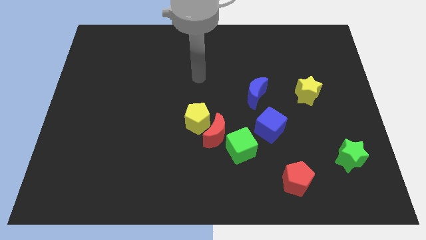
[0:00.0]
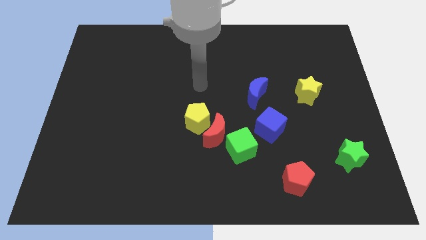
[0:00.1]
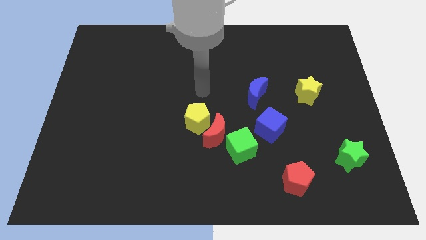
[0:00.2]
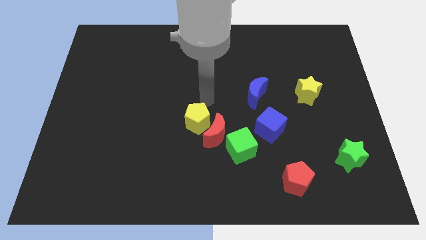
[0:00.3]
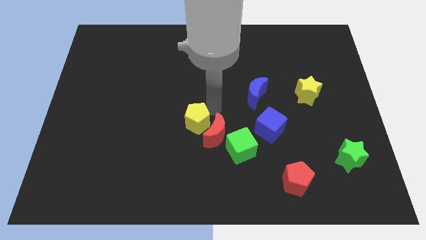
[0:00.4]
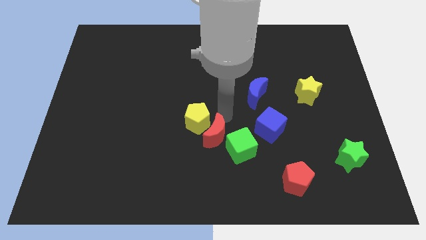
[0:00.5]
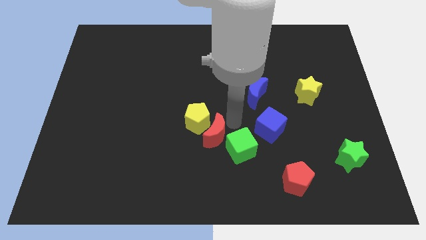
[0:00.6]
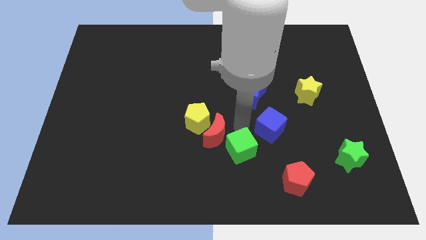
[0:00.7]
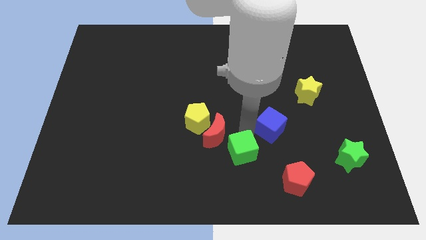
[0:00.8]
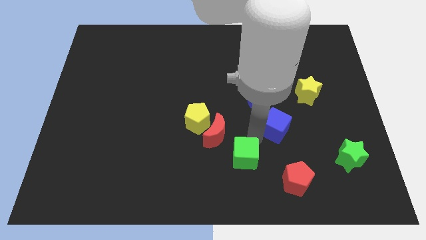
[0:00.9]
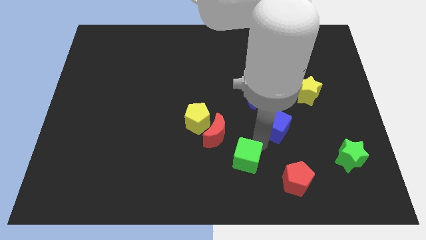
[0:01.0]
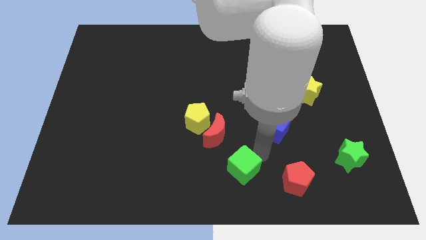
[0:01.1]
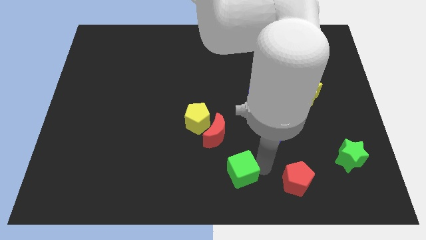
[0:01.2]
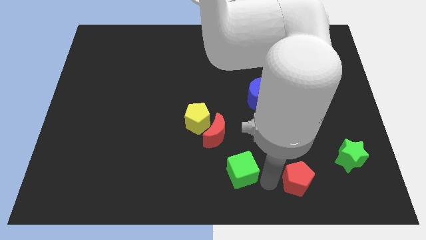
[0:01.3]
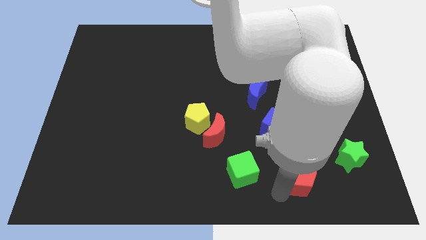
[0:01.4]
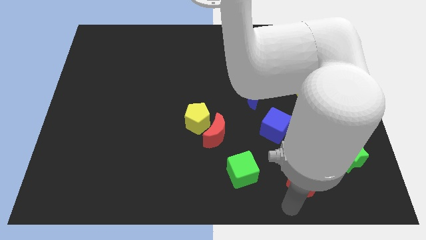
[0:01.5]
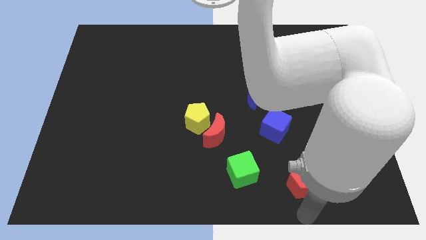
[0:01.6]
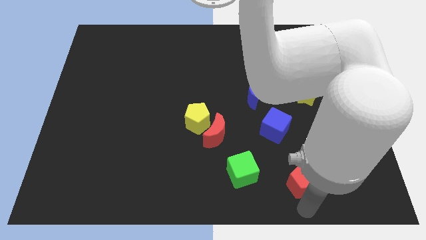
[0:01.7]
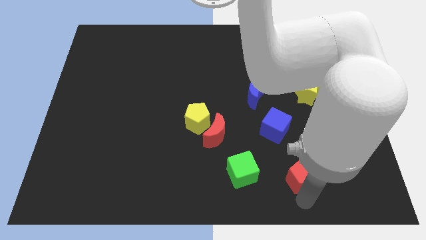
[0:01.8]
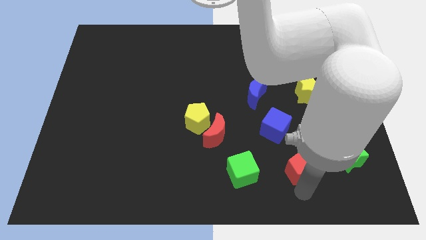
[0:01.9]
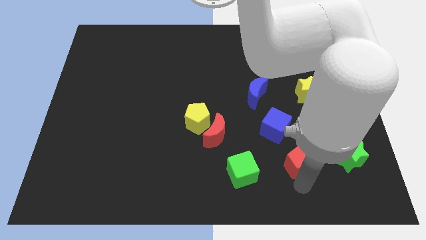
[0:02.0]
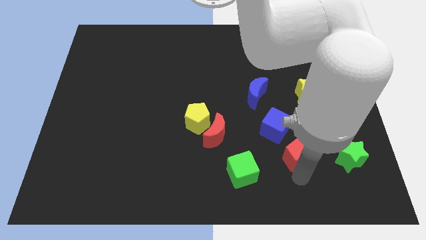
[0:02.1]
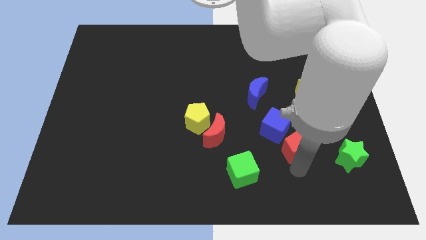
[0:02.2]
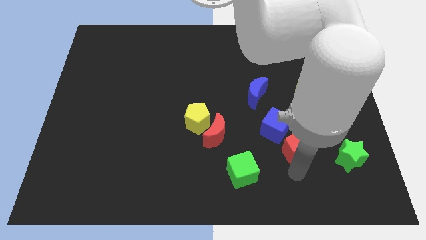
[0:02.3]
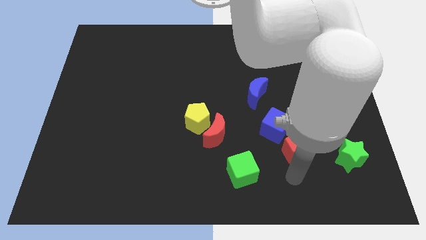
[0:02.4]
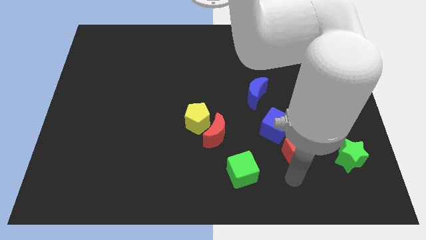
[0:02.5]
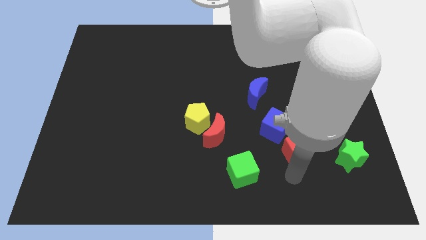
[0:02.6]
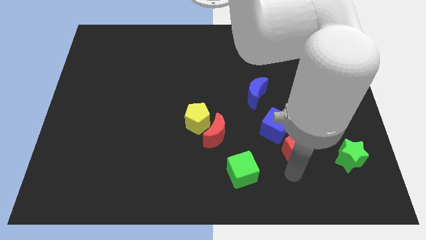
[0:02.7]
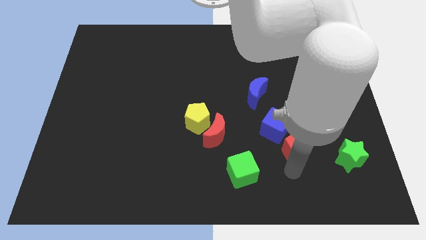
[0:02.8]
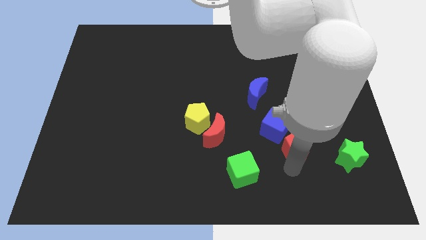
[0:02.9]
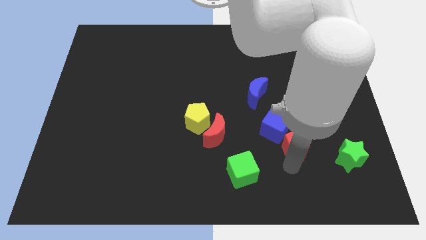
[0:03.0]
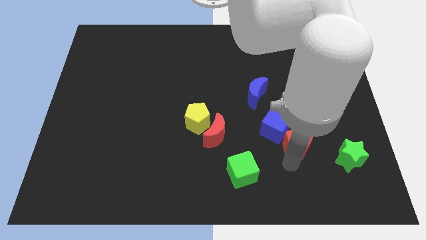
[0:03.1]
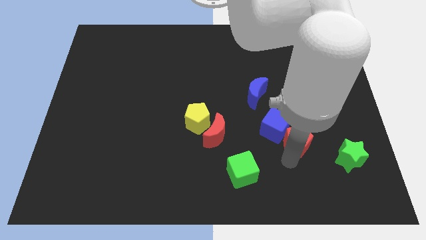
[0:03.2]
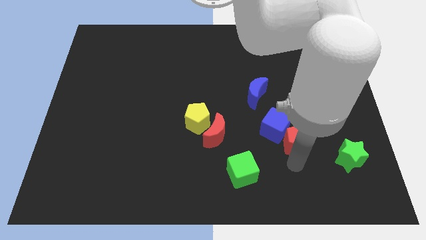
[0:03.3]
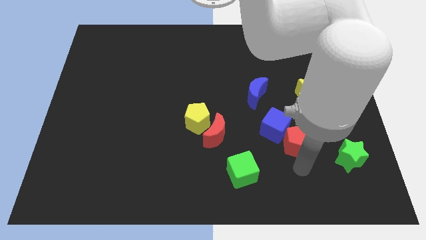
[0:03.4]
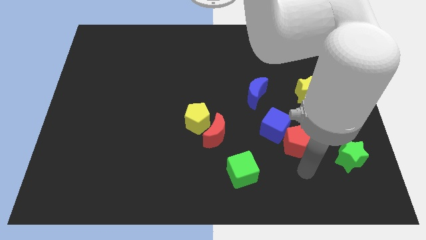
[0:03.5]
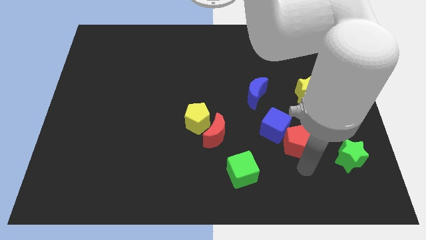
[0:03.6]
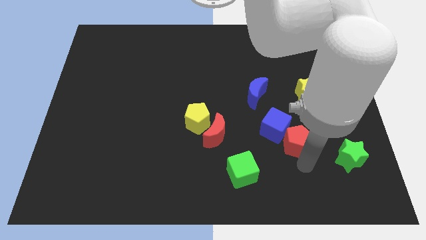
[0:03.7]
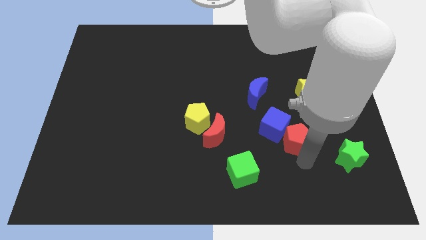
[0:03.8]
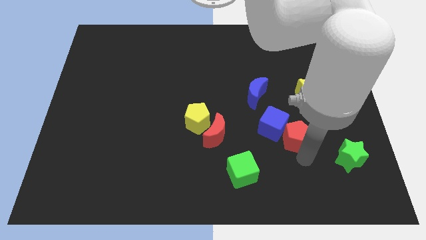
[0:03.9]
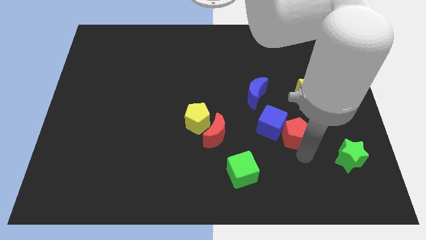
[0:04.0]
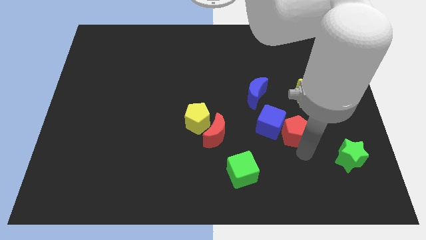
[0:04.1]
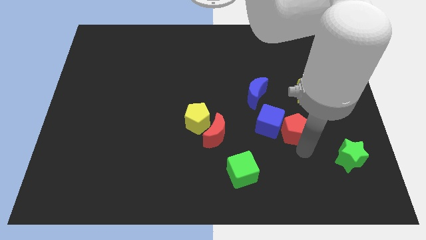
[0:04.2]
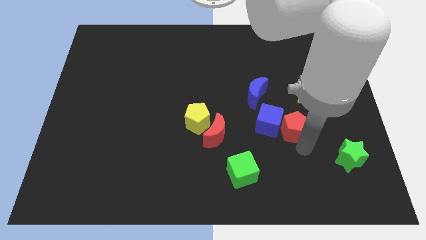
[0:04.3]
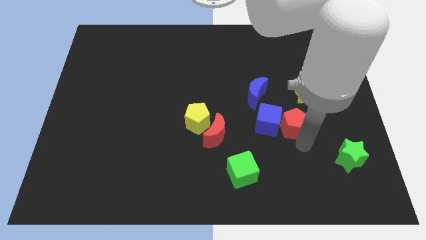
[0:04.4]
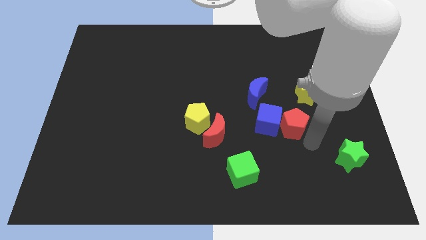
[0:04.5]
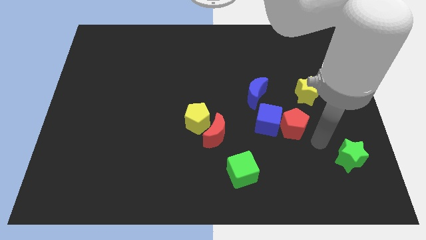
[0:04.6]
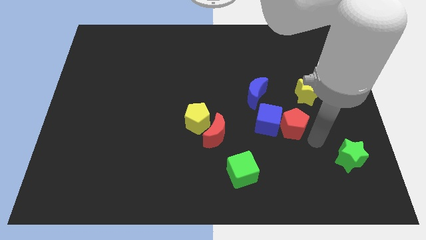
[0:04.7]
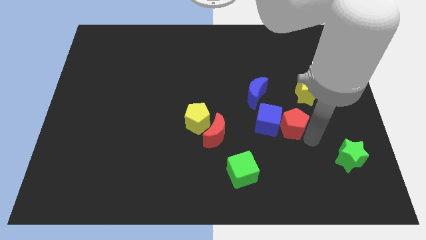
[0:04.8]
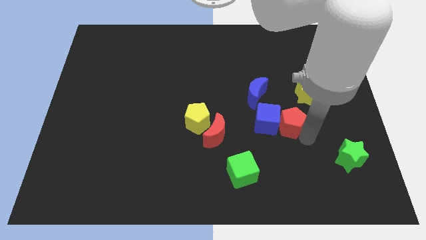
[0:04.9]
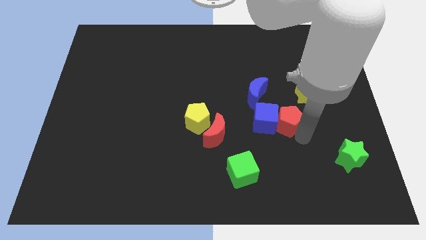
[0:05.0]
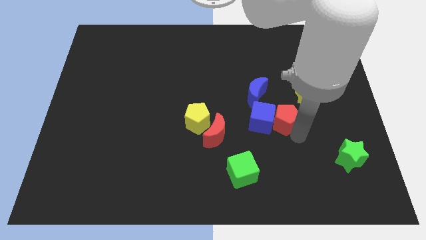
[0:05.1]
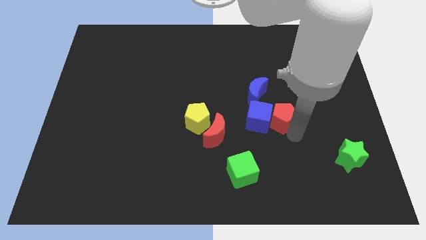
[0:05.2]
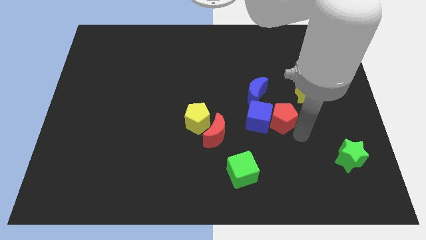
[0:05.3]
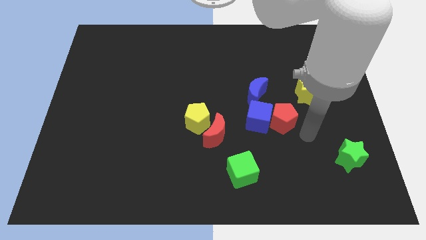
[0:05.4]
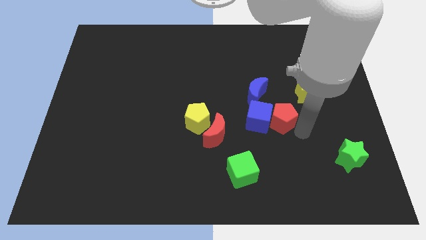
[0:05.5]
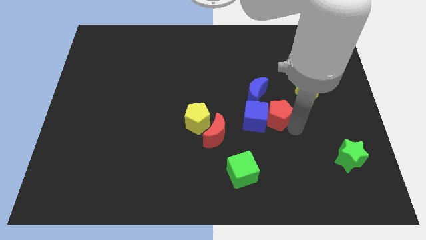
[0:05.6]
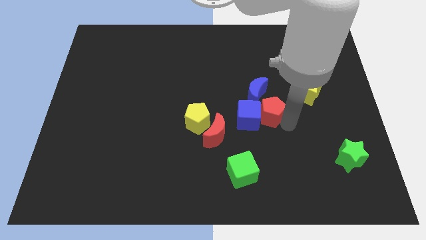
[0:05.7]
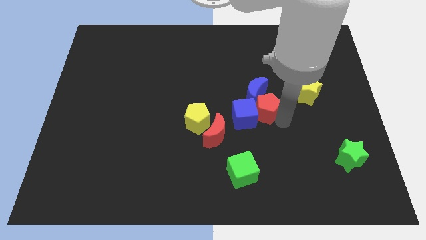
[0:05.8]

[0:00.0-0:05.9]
slide the red pentagon to the middle of the board
